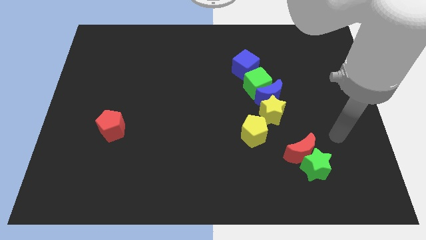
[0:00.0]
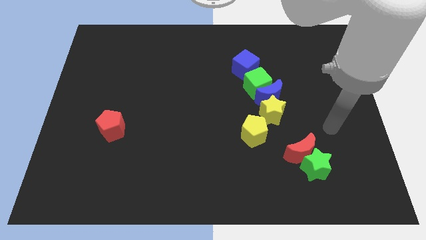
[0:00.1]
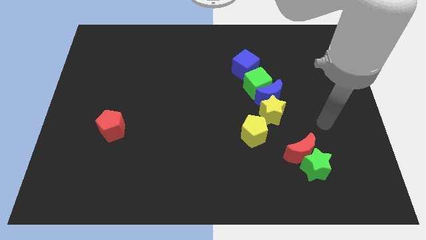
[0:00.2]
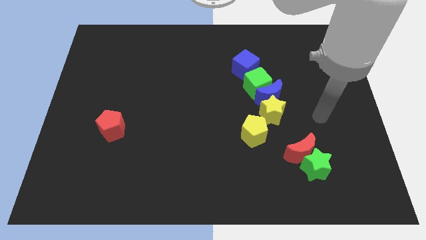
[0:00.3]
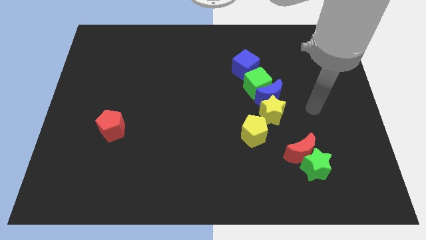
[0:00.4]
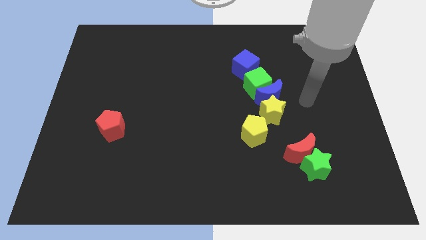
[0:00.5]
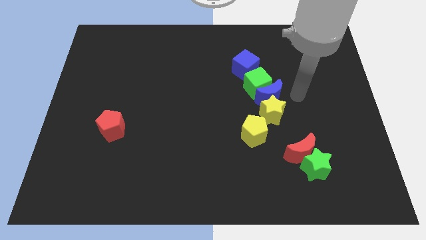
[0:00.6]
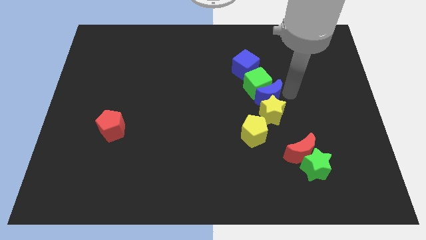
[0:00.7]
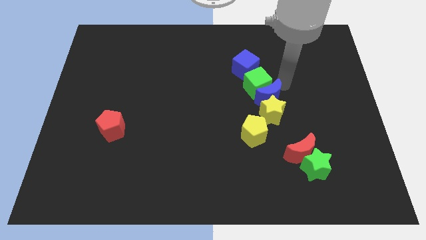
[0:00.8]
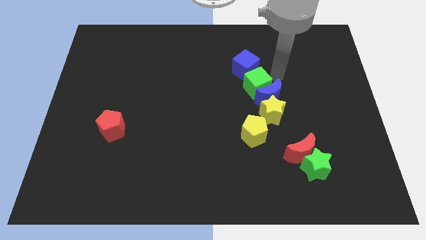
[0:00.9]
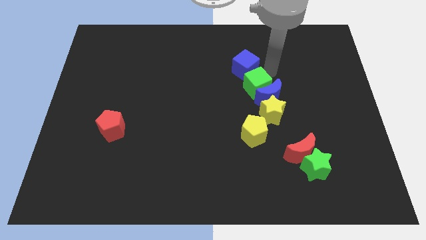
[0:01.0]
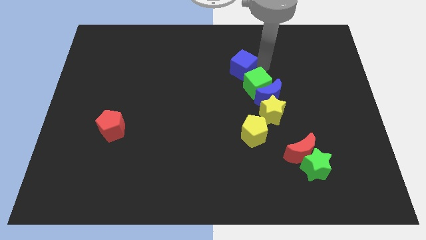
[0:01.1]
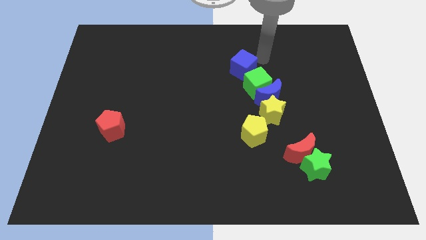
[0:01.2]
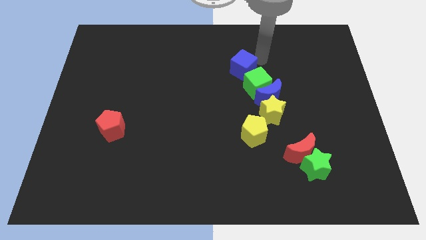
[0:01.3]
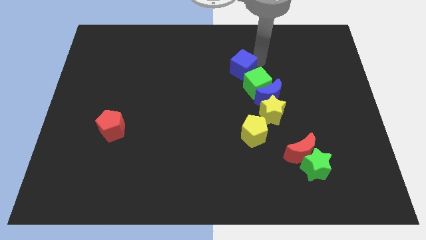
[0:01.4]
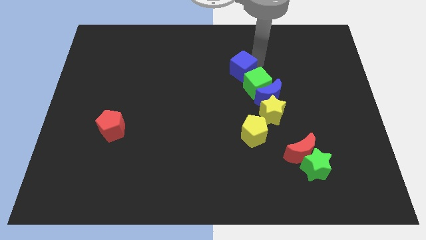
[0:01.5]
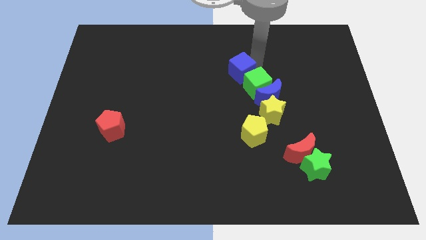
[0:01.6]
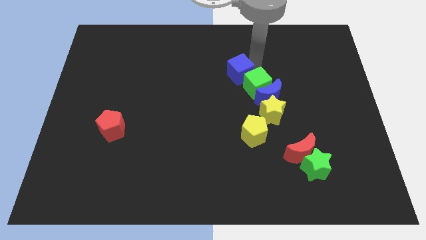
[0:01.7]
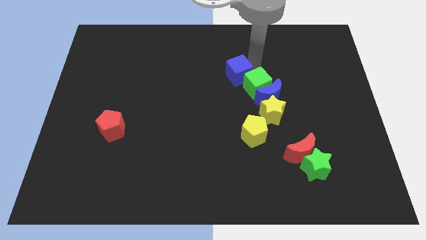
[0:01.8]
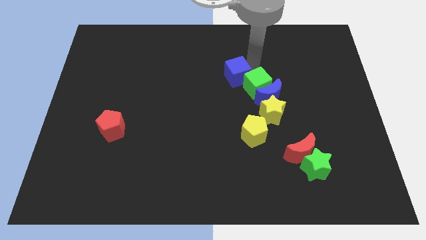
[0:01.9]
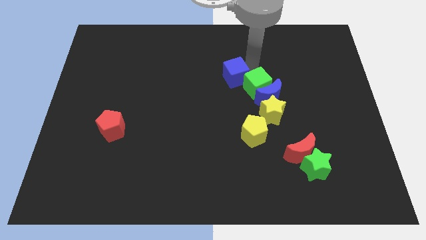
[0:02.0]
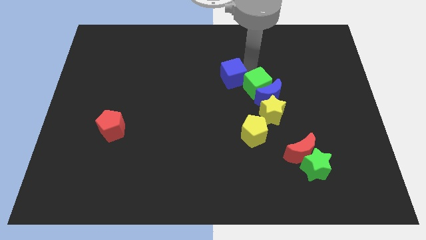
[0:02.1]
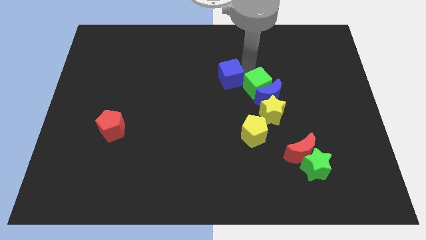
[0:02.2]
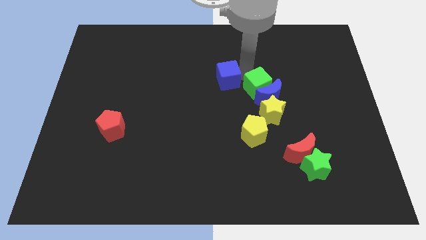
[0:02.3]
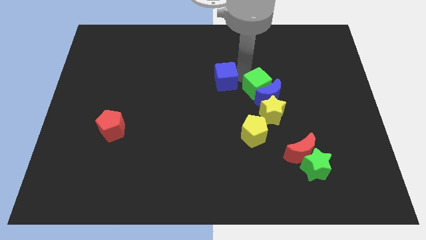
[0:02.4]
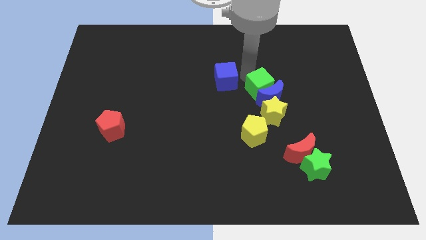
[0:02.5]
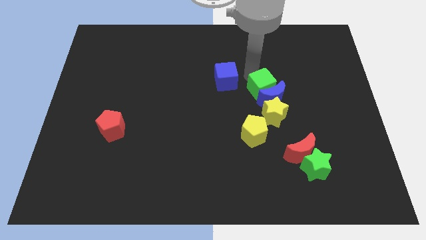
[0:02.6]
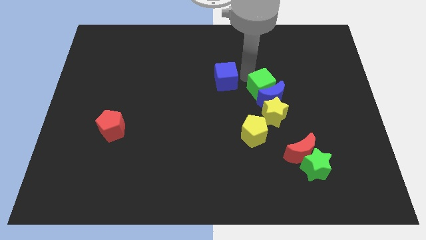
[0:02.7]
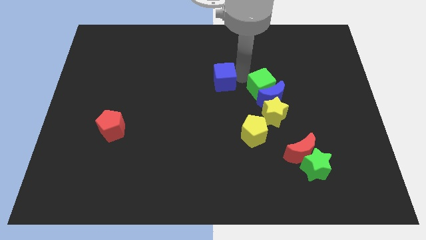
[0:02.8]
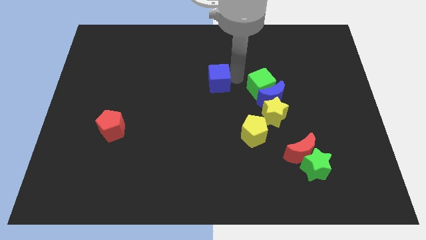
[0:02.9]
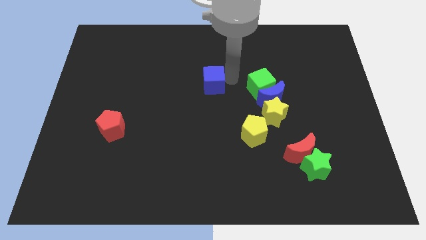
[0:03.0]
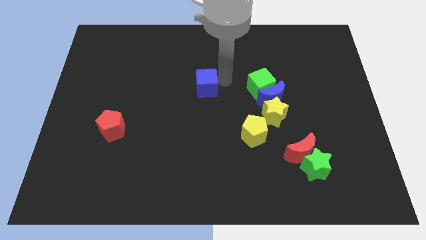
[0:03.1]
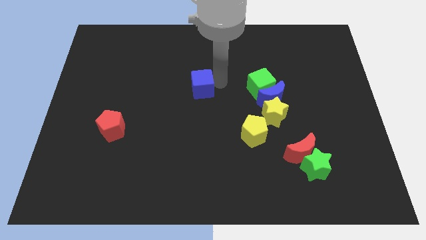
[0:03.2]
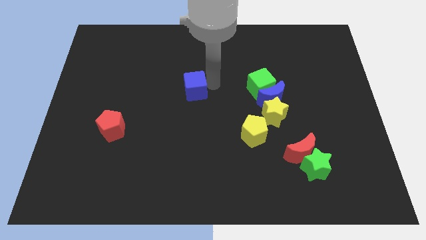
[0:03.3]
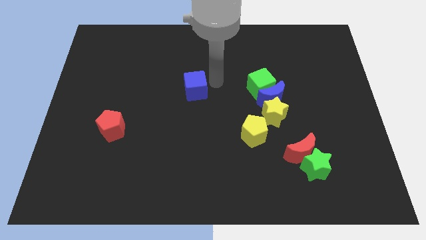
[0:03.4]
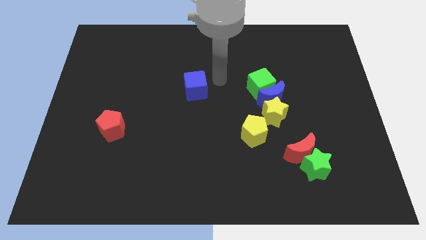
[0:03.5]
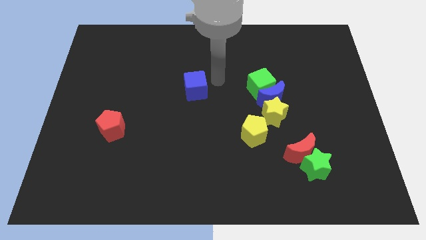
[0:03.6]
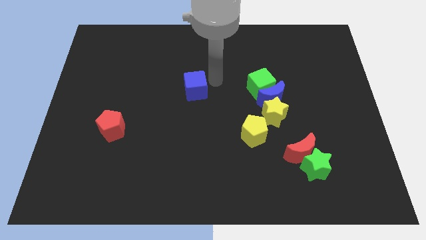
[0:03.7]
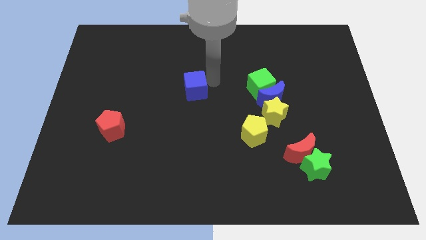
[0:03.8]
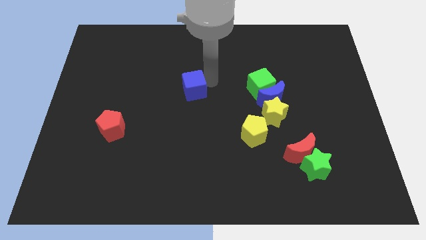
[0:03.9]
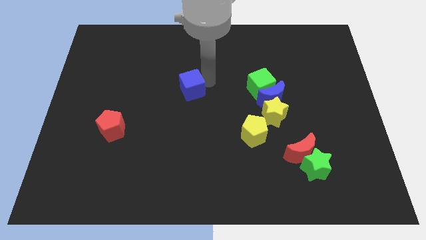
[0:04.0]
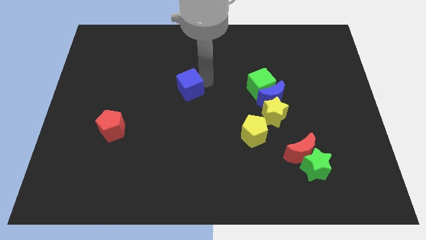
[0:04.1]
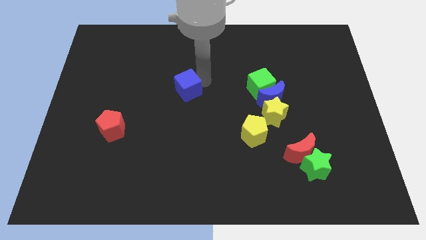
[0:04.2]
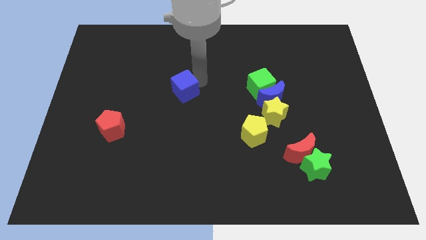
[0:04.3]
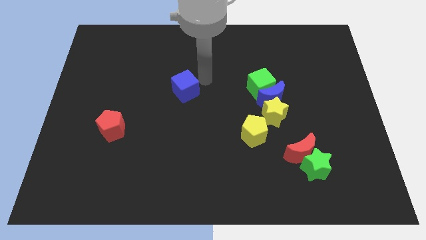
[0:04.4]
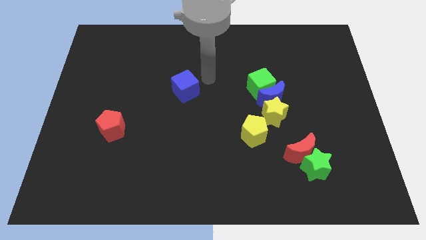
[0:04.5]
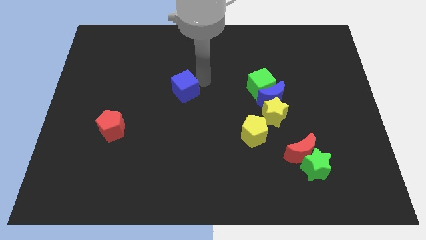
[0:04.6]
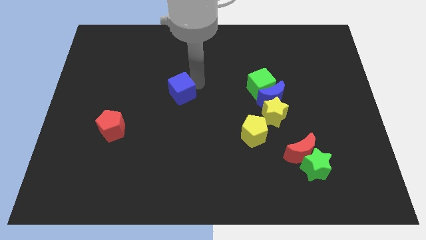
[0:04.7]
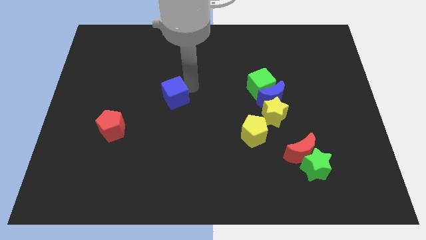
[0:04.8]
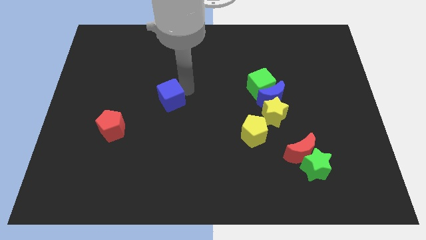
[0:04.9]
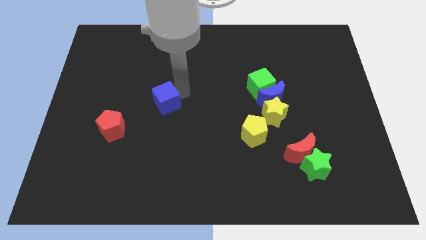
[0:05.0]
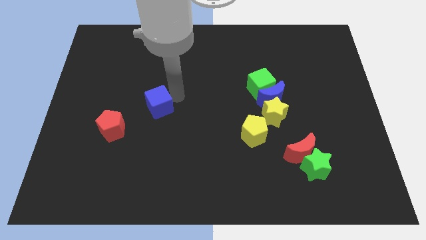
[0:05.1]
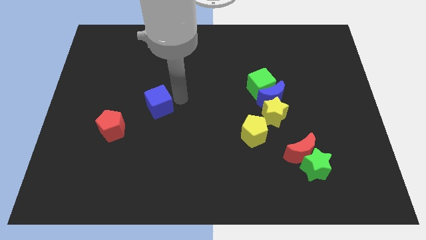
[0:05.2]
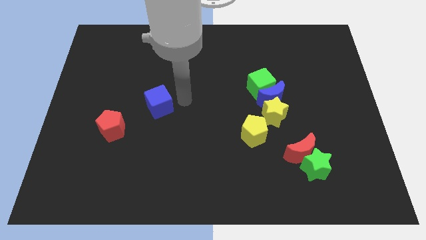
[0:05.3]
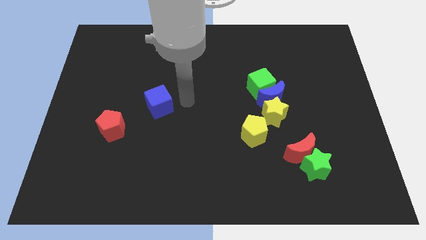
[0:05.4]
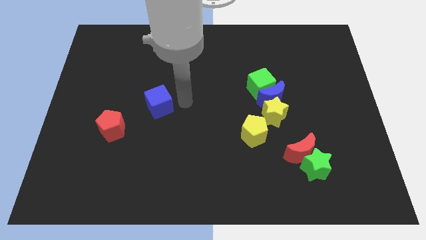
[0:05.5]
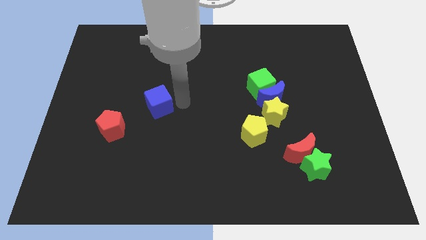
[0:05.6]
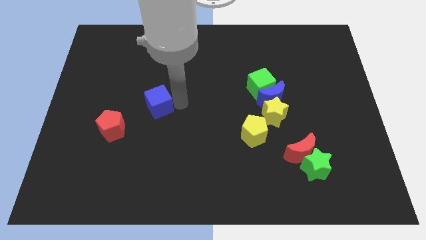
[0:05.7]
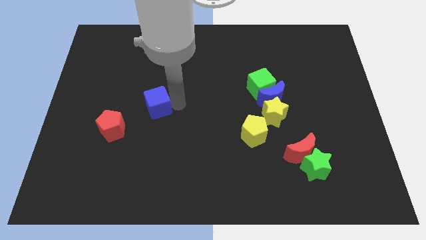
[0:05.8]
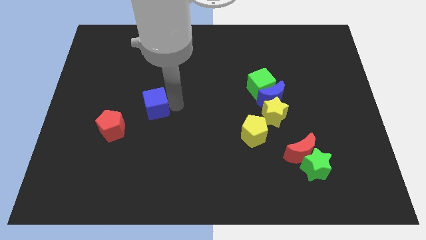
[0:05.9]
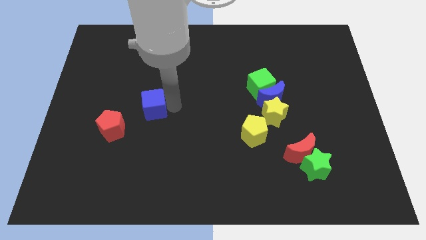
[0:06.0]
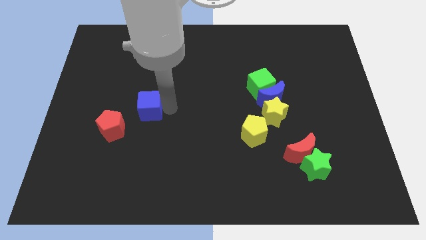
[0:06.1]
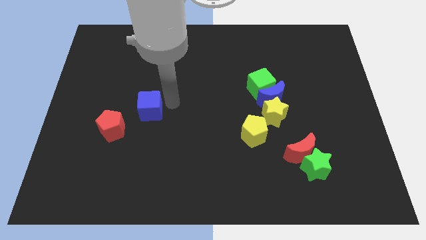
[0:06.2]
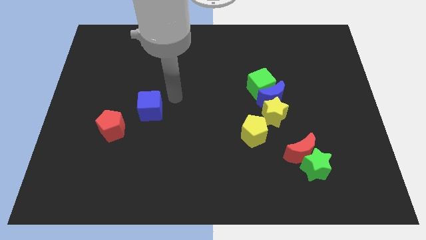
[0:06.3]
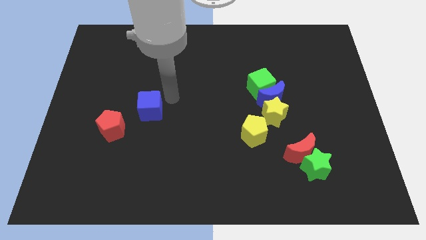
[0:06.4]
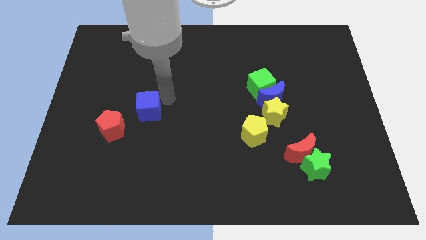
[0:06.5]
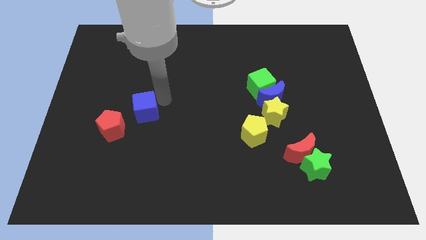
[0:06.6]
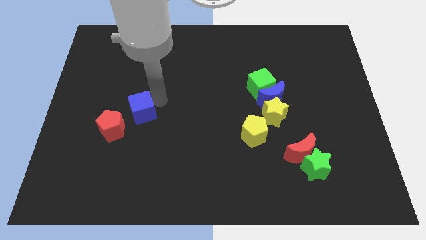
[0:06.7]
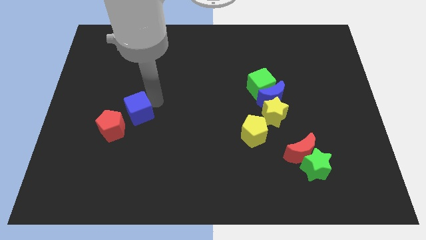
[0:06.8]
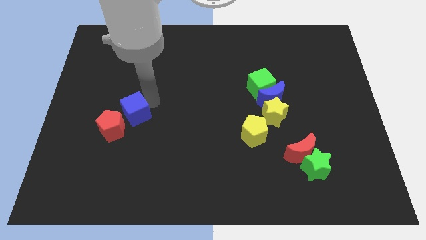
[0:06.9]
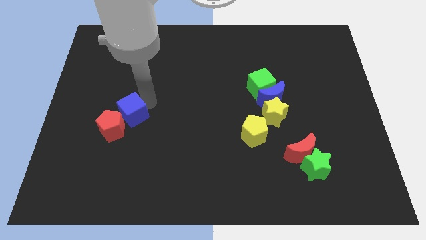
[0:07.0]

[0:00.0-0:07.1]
move the blue cube to the red pentagon

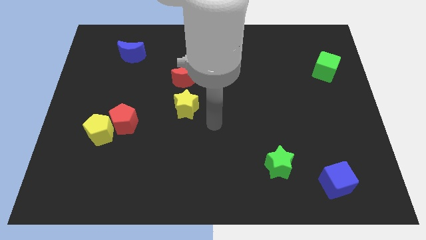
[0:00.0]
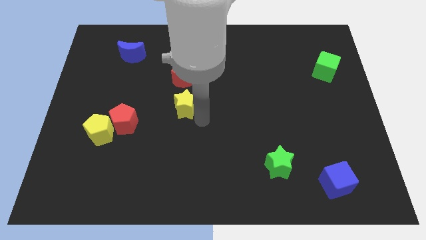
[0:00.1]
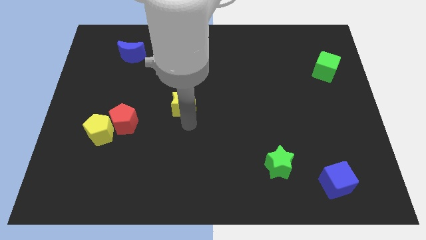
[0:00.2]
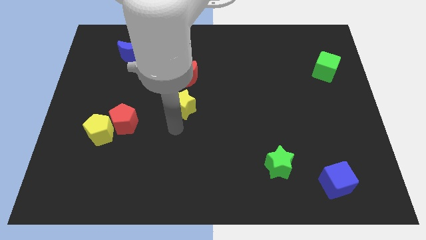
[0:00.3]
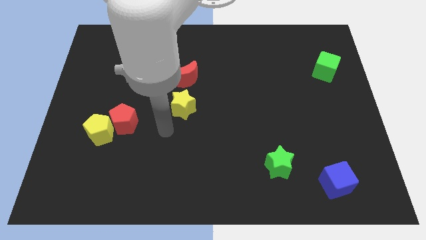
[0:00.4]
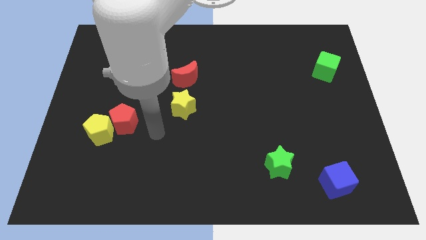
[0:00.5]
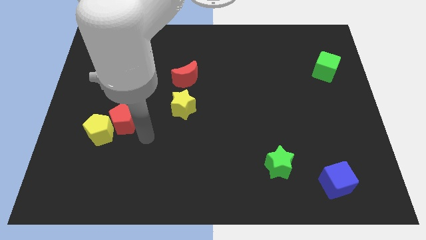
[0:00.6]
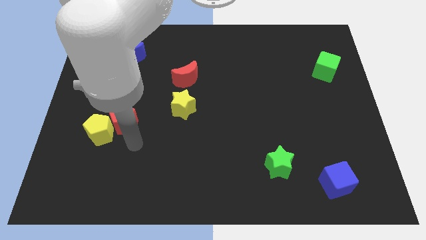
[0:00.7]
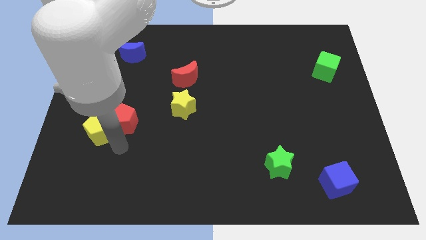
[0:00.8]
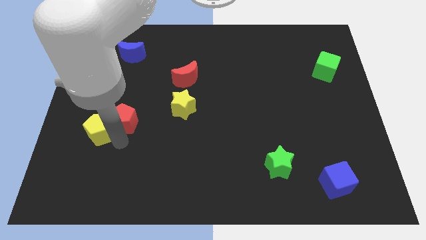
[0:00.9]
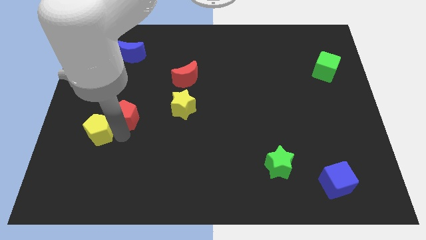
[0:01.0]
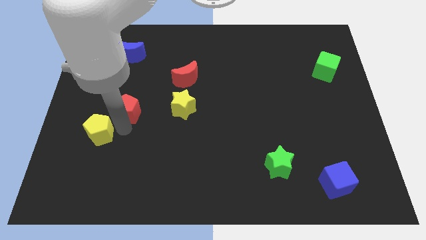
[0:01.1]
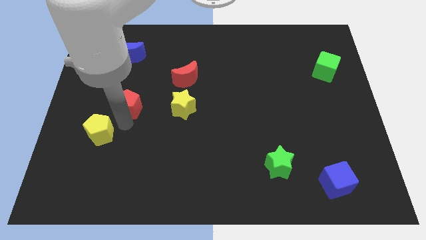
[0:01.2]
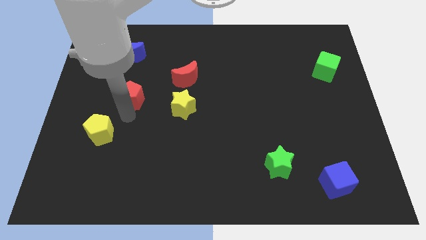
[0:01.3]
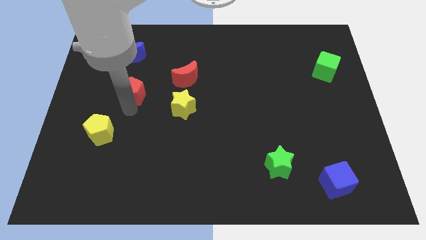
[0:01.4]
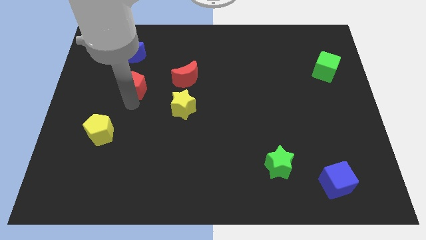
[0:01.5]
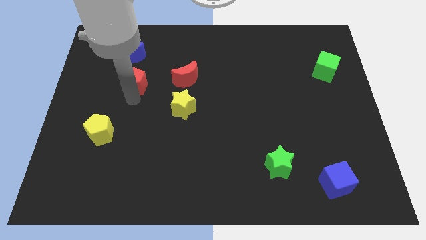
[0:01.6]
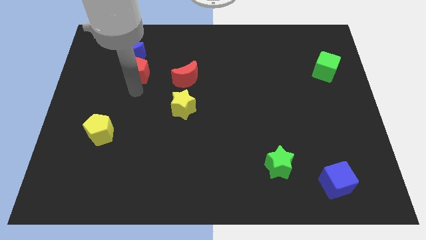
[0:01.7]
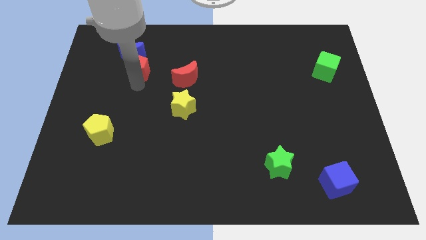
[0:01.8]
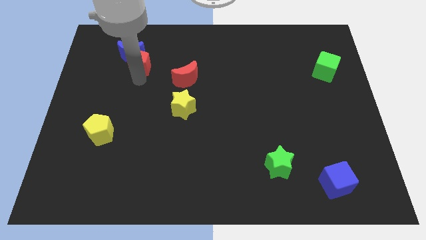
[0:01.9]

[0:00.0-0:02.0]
slide the red pentagon next to the blue moon
